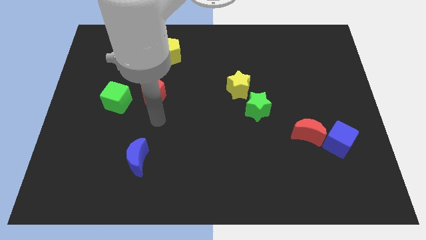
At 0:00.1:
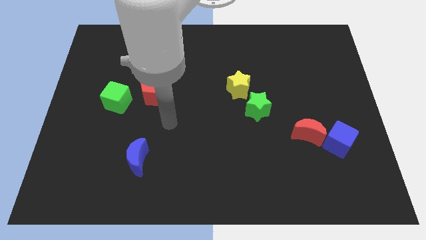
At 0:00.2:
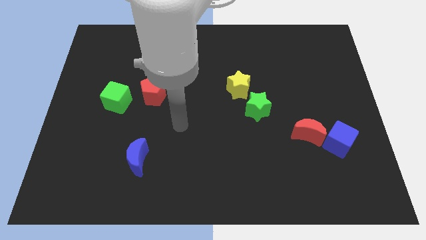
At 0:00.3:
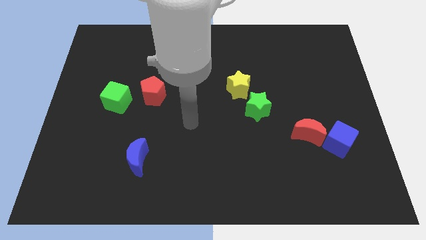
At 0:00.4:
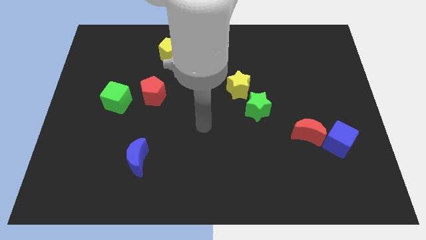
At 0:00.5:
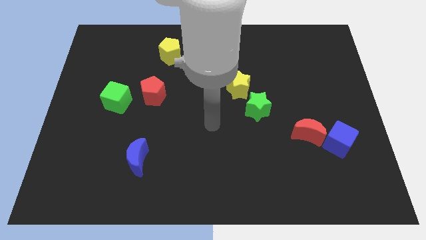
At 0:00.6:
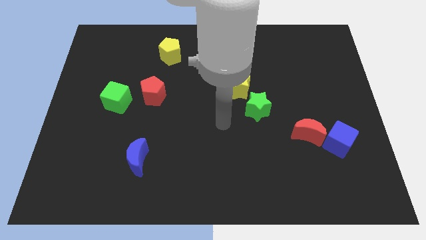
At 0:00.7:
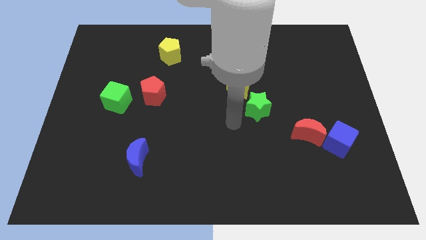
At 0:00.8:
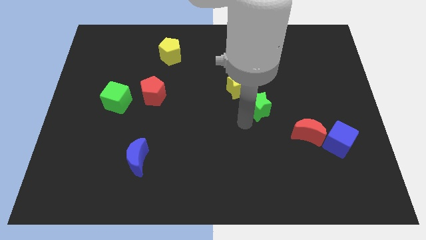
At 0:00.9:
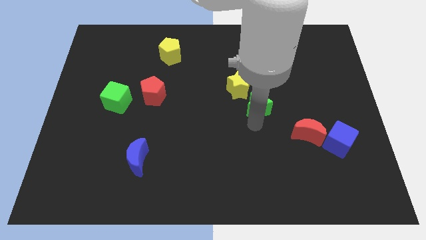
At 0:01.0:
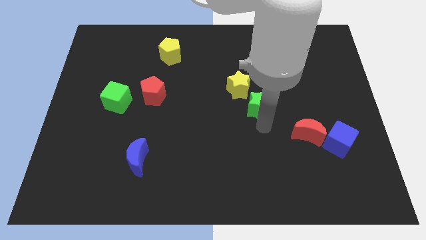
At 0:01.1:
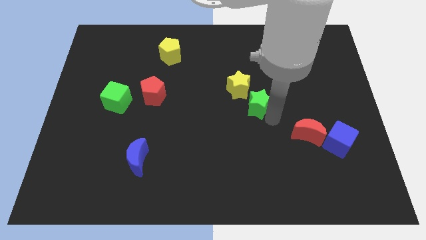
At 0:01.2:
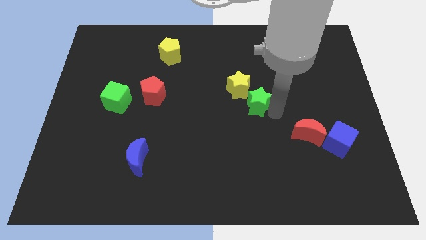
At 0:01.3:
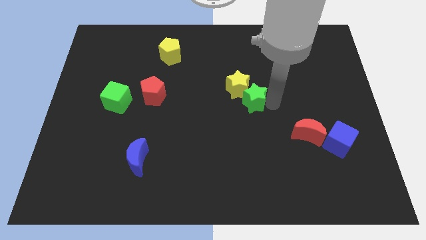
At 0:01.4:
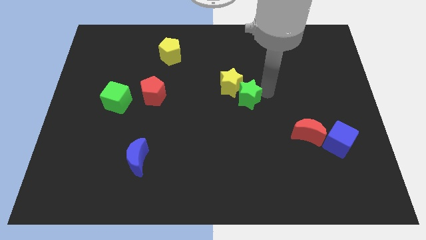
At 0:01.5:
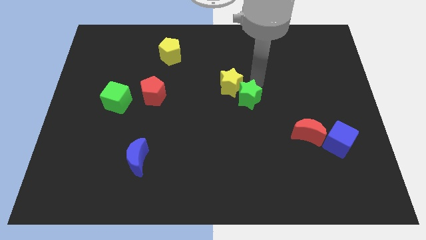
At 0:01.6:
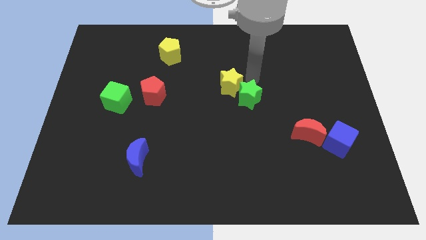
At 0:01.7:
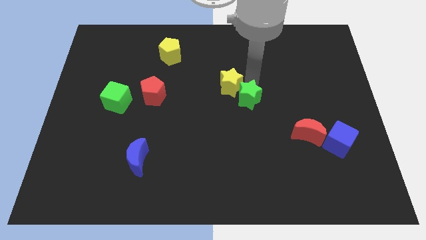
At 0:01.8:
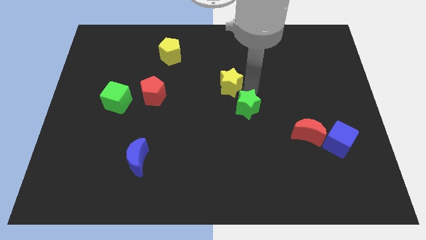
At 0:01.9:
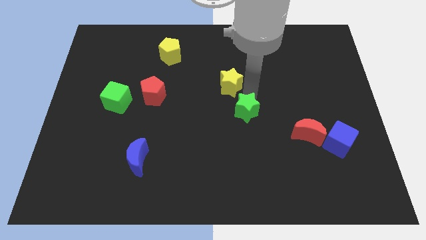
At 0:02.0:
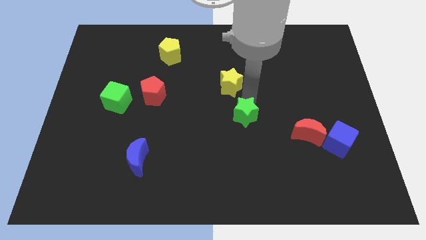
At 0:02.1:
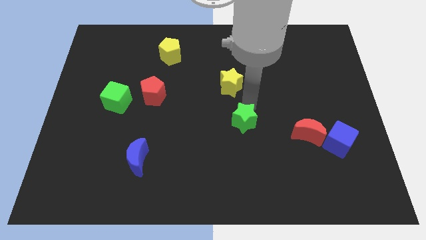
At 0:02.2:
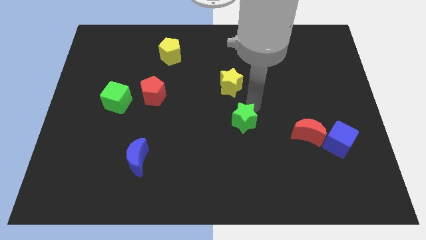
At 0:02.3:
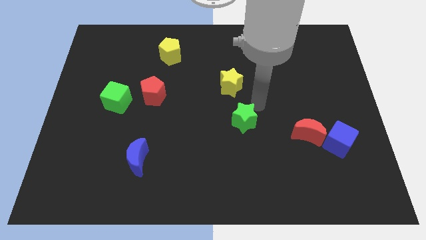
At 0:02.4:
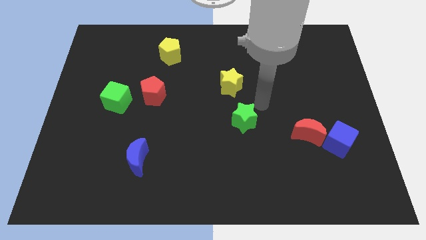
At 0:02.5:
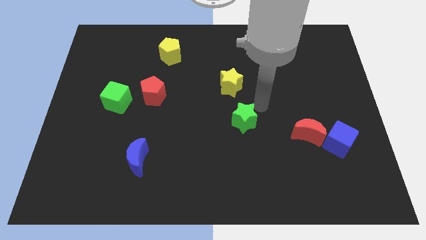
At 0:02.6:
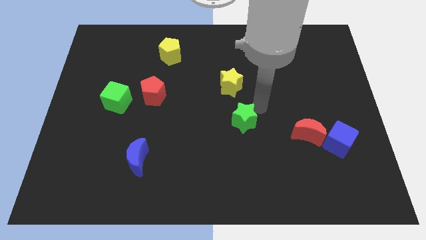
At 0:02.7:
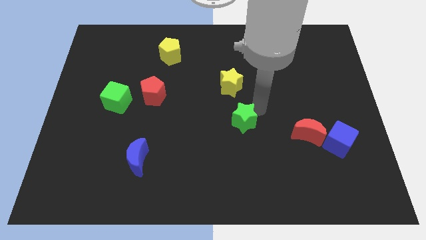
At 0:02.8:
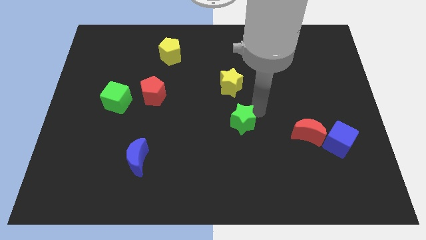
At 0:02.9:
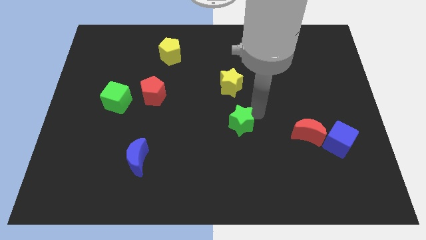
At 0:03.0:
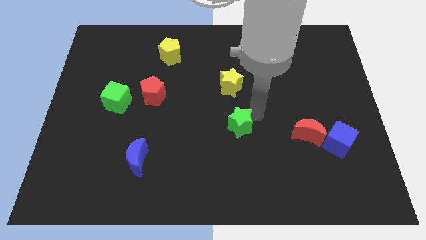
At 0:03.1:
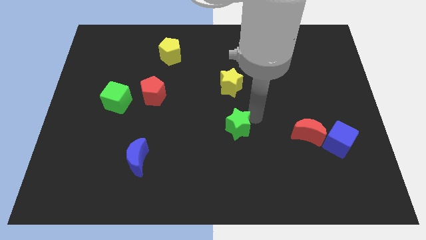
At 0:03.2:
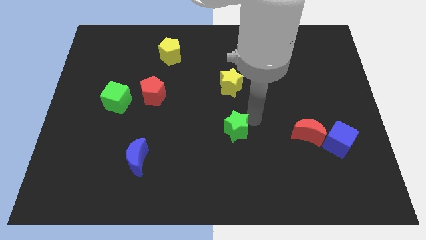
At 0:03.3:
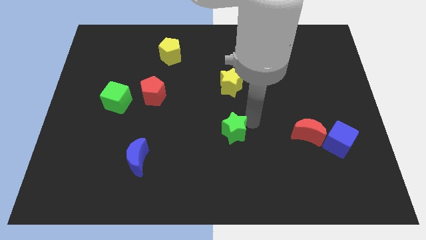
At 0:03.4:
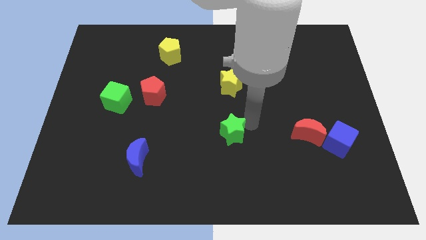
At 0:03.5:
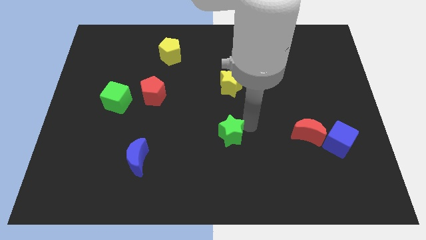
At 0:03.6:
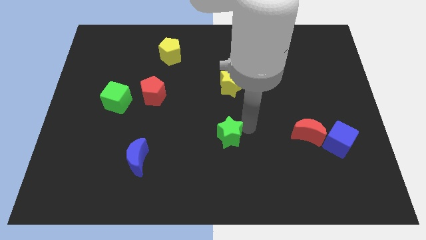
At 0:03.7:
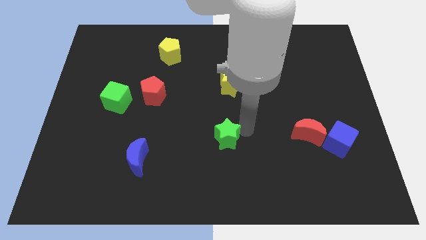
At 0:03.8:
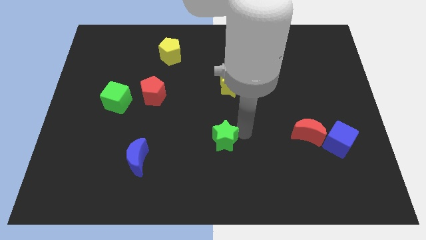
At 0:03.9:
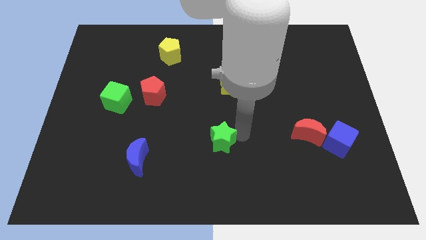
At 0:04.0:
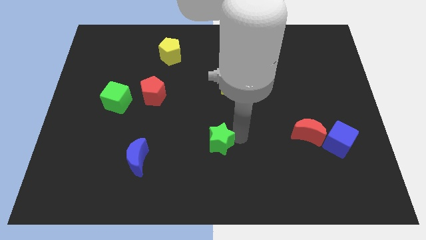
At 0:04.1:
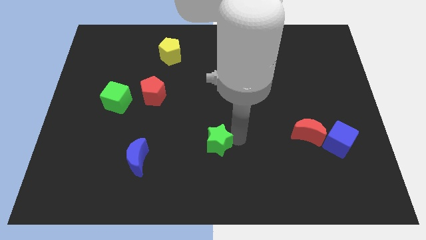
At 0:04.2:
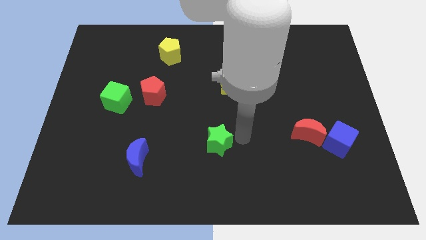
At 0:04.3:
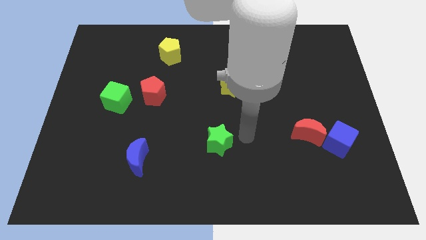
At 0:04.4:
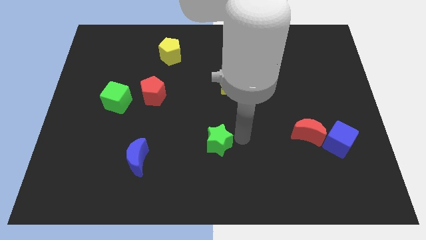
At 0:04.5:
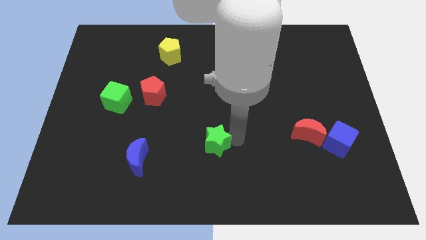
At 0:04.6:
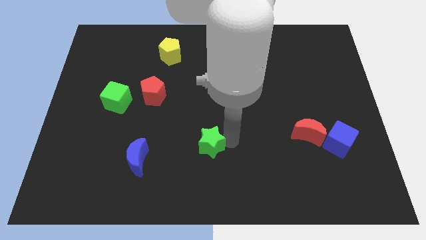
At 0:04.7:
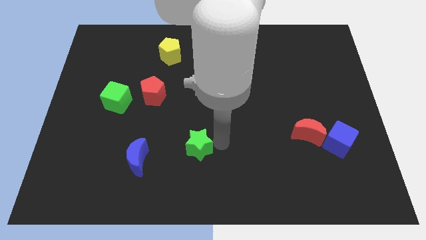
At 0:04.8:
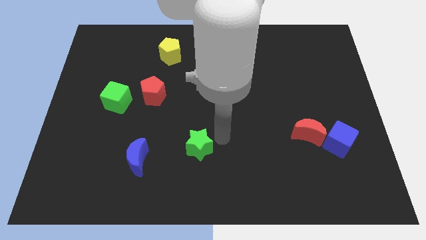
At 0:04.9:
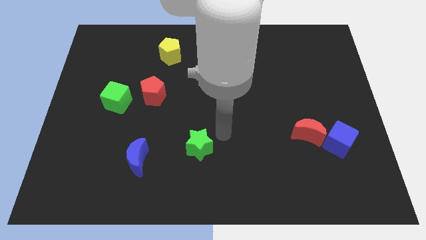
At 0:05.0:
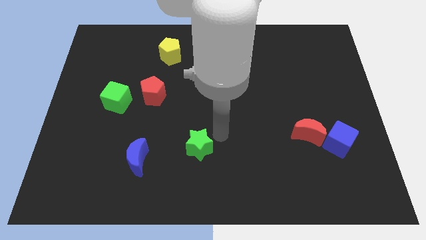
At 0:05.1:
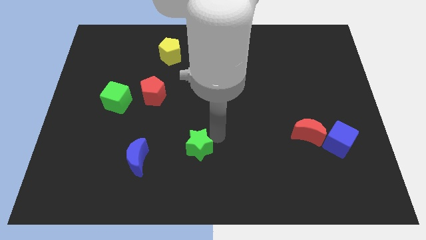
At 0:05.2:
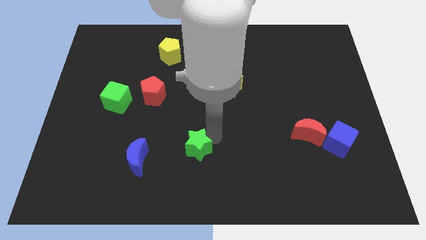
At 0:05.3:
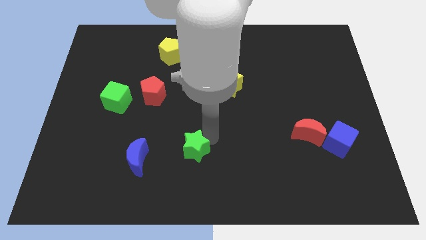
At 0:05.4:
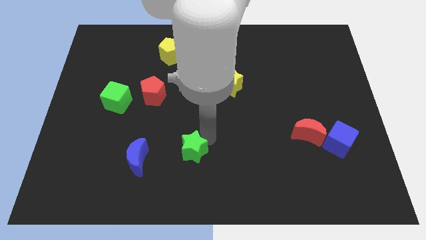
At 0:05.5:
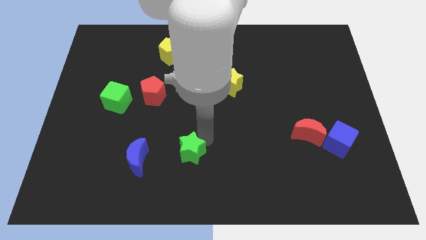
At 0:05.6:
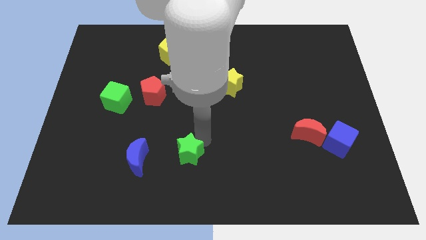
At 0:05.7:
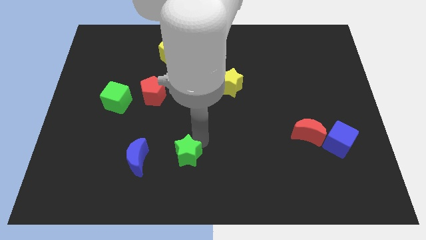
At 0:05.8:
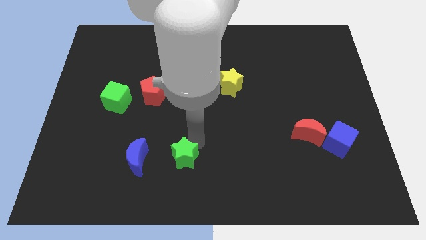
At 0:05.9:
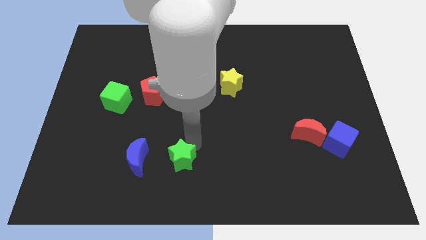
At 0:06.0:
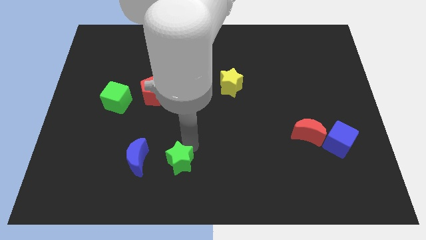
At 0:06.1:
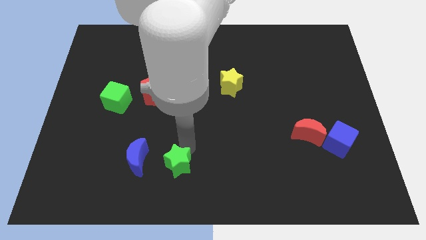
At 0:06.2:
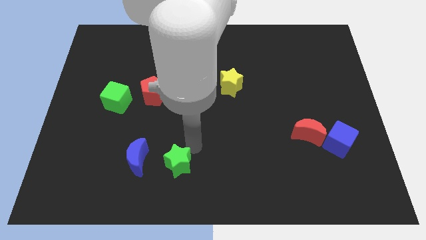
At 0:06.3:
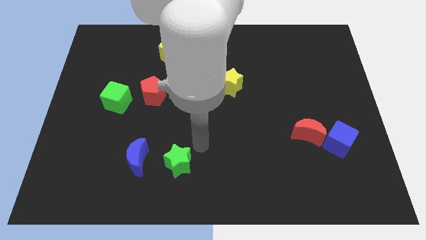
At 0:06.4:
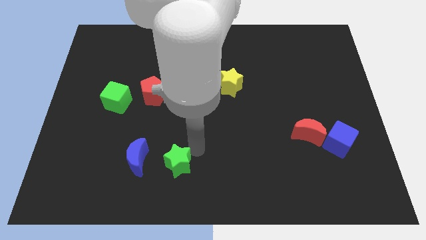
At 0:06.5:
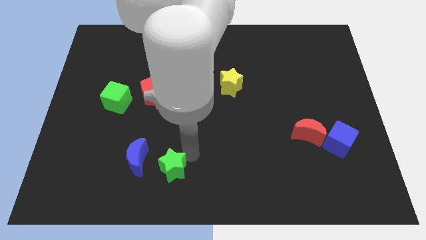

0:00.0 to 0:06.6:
slide the green star to the bottom right of the blue moon
